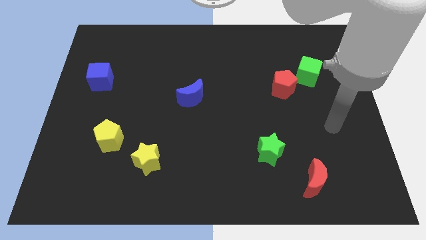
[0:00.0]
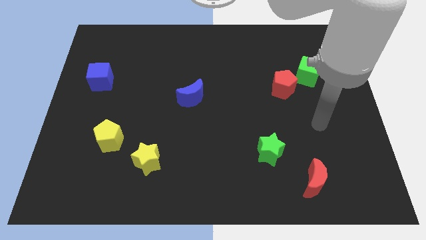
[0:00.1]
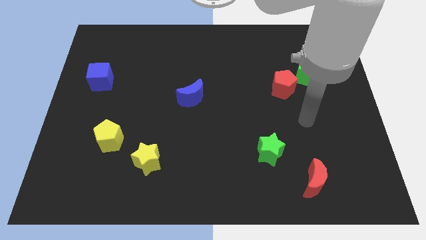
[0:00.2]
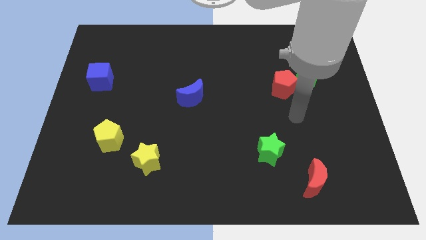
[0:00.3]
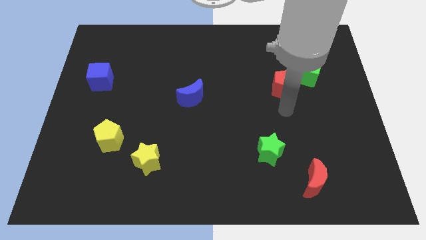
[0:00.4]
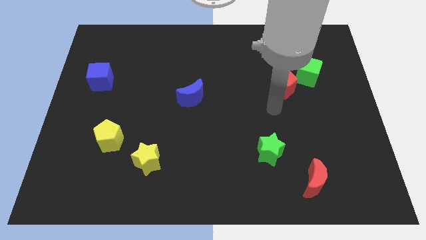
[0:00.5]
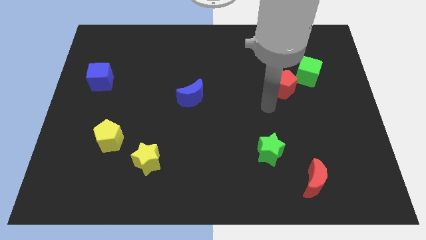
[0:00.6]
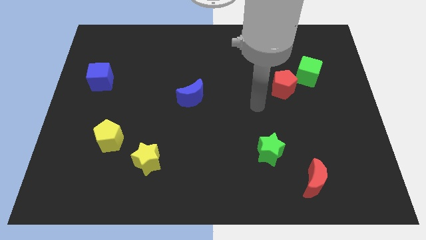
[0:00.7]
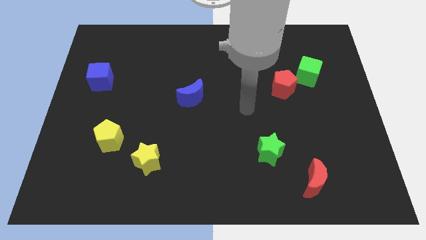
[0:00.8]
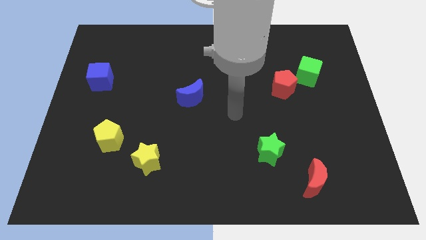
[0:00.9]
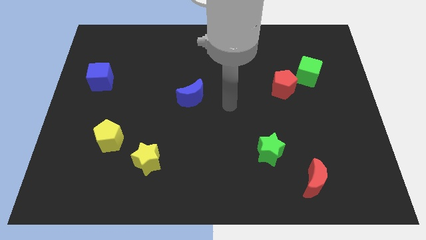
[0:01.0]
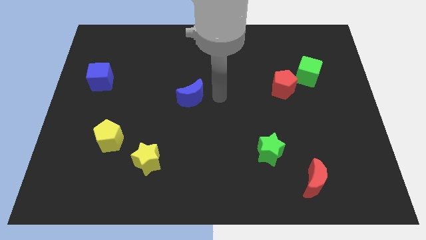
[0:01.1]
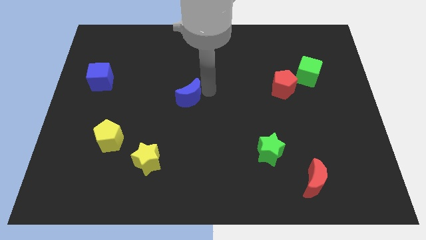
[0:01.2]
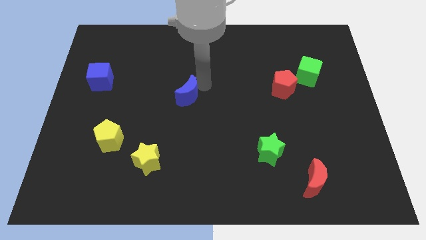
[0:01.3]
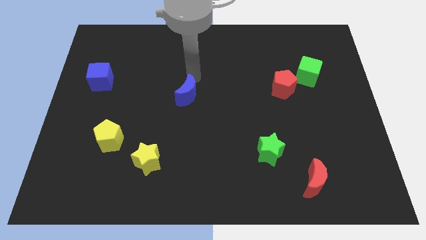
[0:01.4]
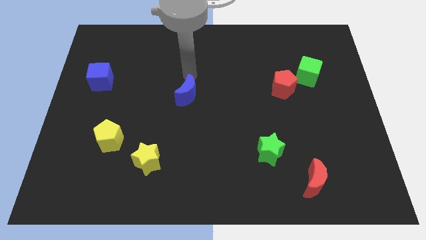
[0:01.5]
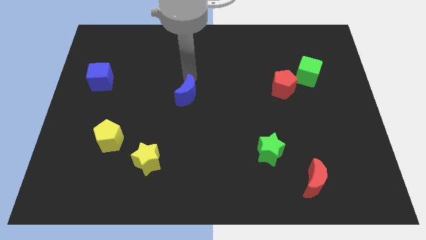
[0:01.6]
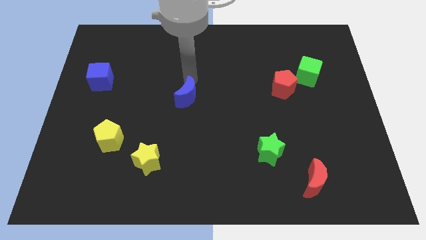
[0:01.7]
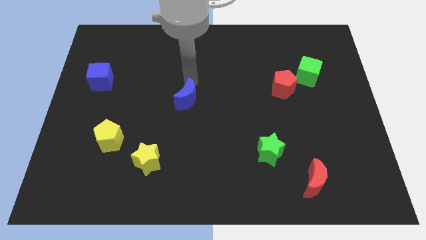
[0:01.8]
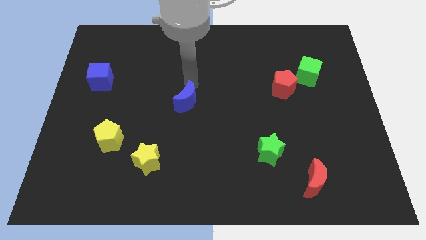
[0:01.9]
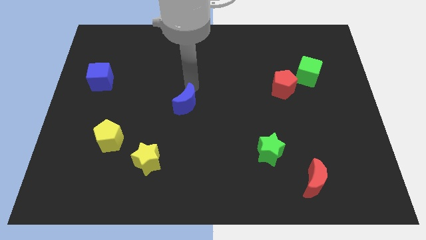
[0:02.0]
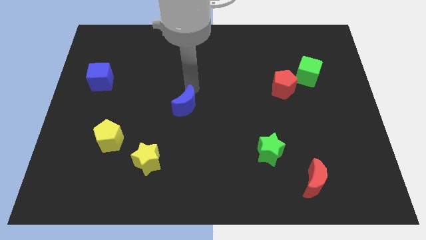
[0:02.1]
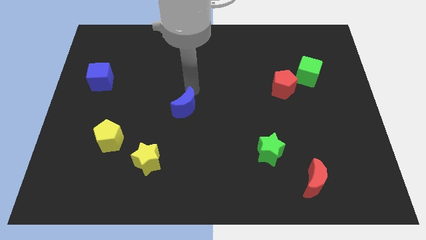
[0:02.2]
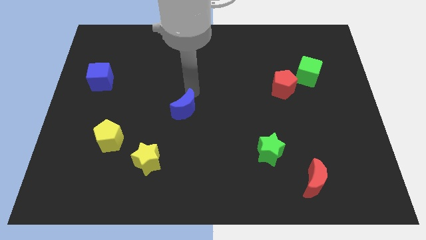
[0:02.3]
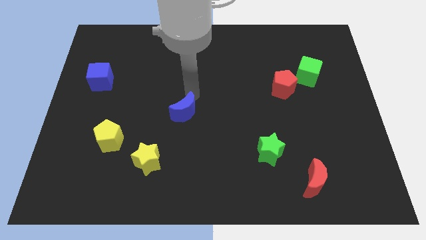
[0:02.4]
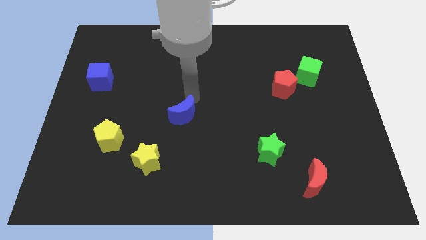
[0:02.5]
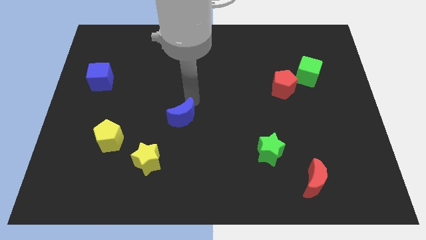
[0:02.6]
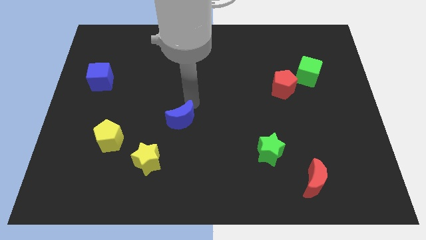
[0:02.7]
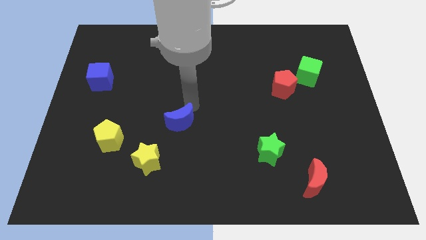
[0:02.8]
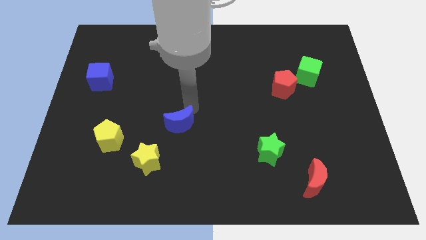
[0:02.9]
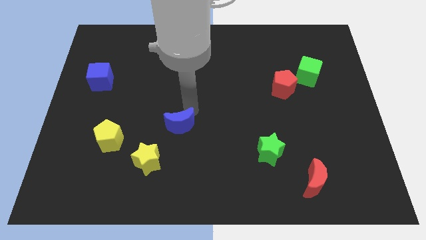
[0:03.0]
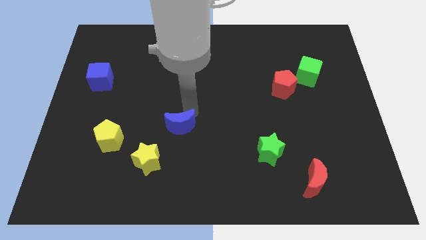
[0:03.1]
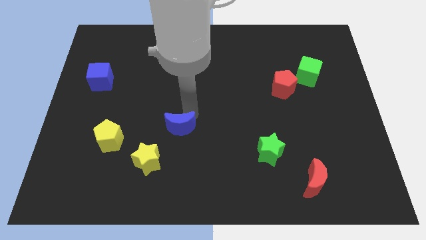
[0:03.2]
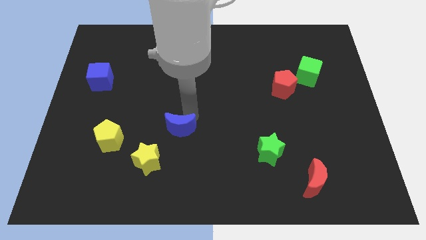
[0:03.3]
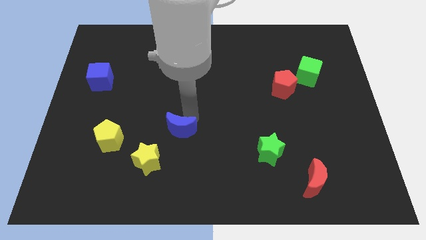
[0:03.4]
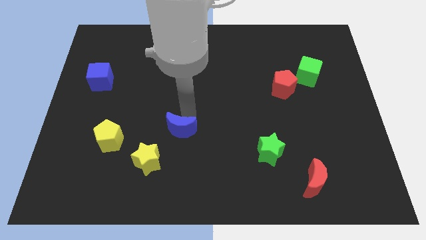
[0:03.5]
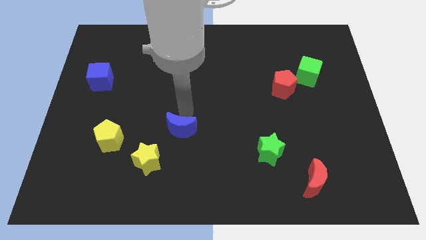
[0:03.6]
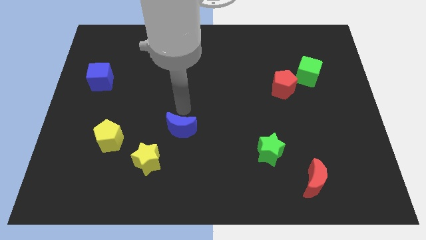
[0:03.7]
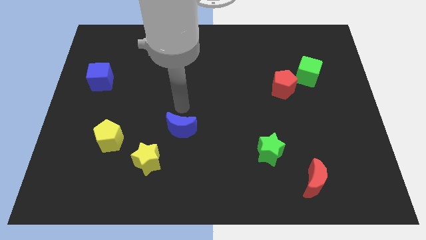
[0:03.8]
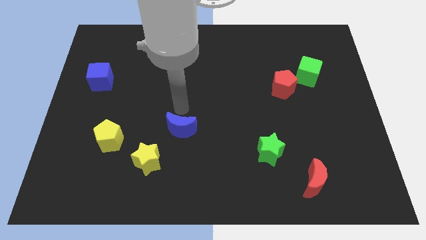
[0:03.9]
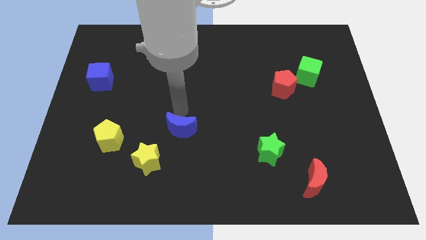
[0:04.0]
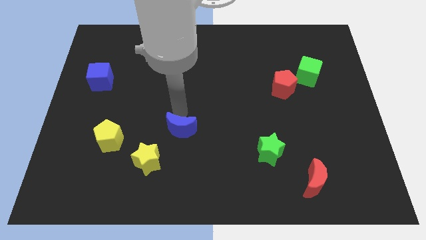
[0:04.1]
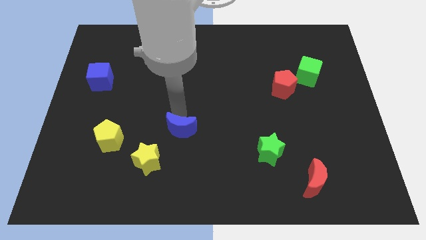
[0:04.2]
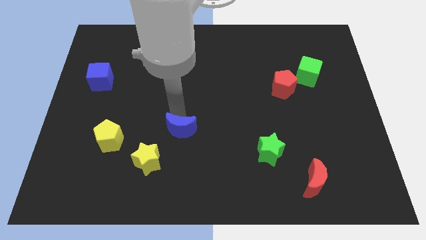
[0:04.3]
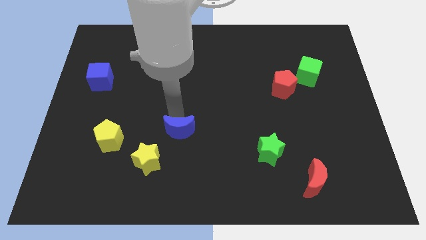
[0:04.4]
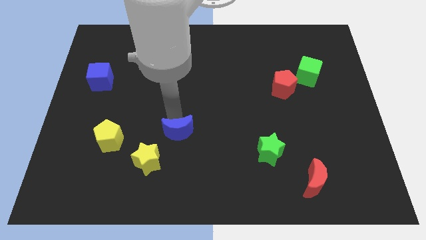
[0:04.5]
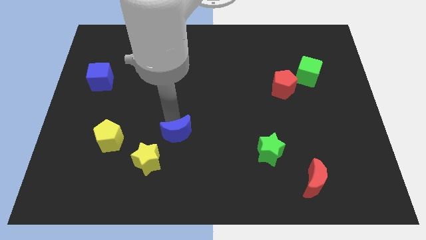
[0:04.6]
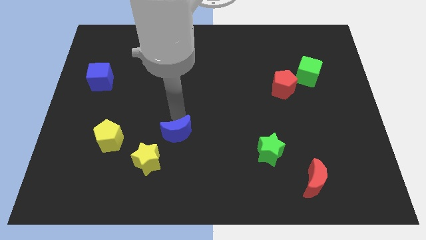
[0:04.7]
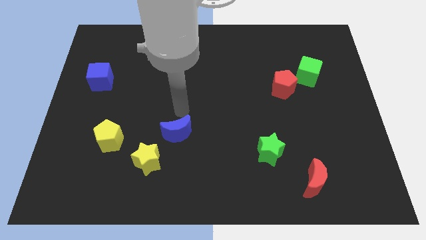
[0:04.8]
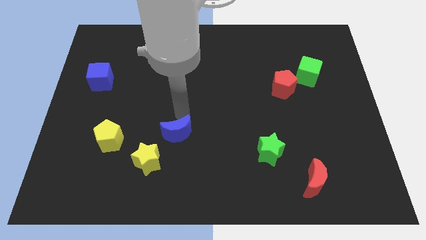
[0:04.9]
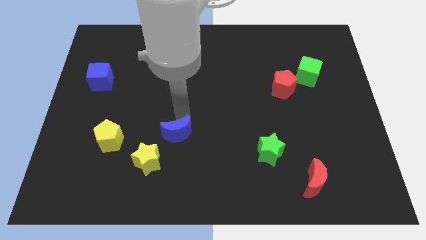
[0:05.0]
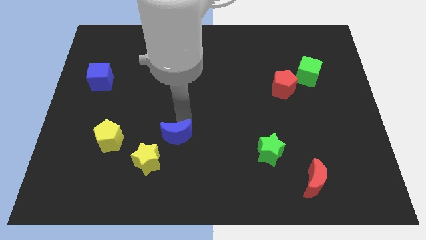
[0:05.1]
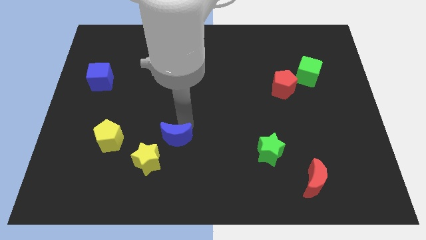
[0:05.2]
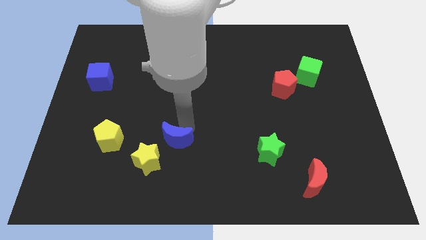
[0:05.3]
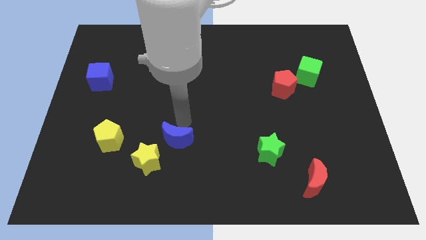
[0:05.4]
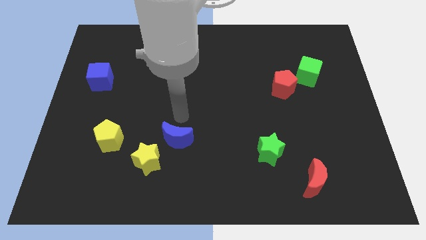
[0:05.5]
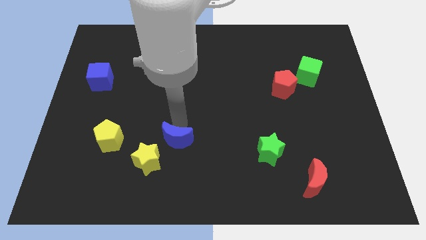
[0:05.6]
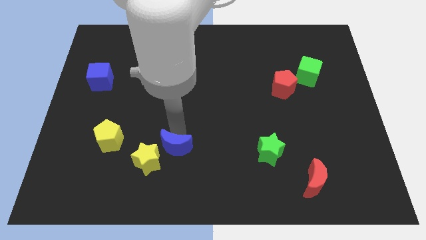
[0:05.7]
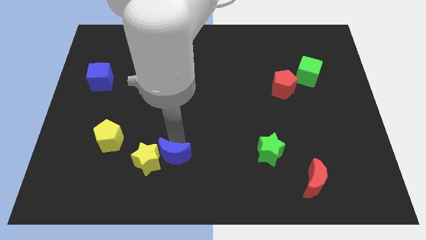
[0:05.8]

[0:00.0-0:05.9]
slide the blue moon to the bottom right side of the yellow star
